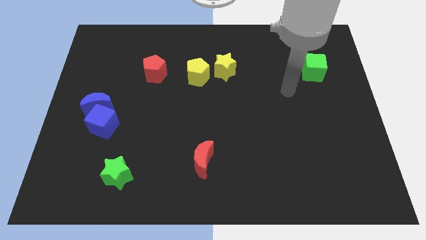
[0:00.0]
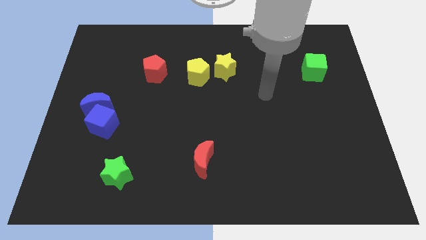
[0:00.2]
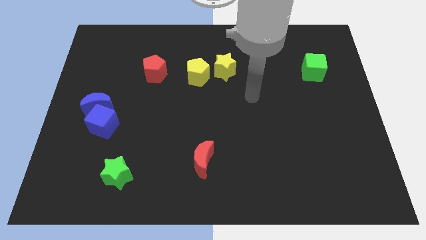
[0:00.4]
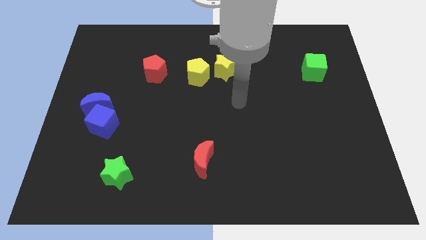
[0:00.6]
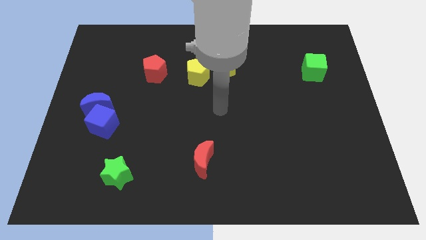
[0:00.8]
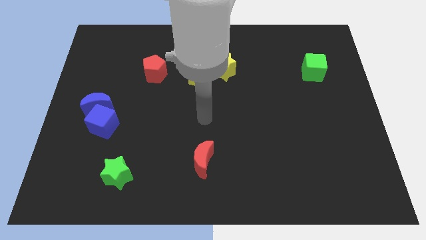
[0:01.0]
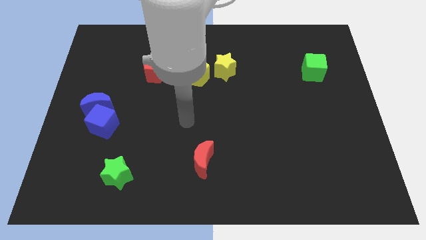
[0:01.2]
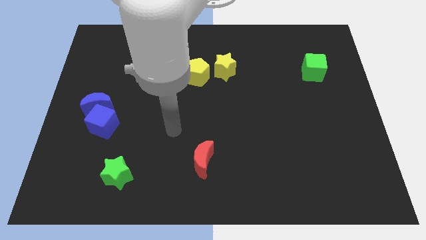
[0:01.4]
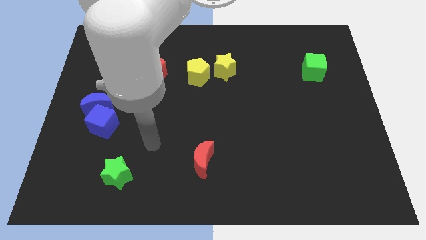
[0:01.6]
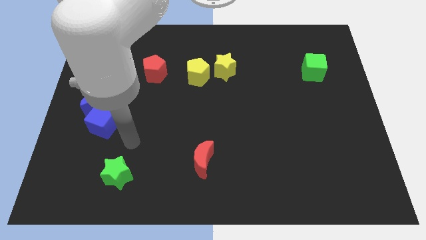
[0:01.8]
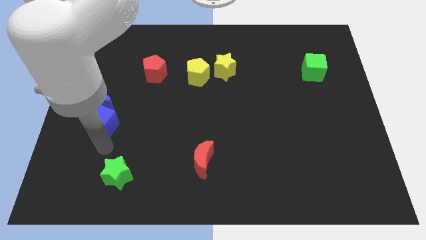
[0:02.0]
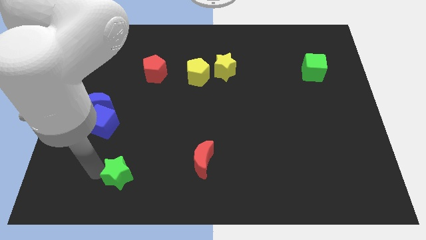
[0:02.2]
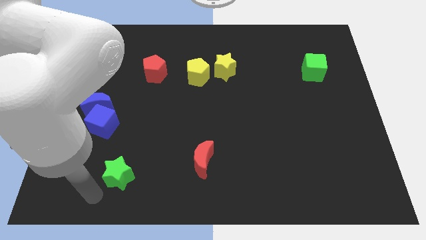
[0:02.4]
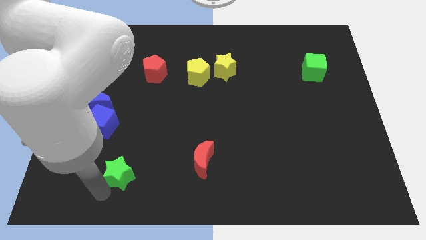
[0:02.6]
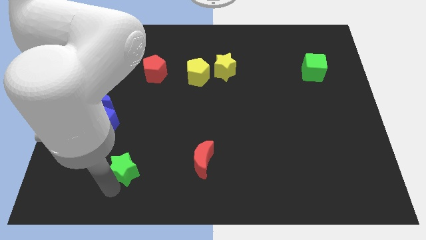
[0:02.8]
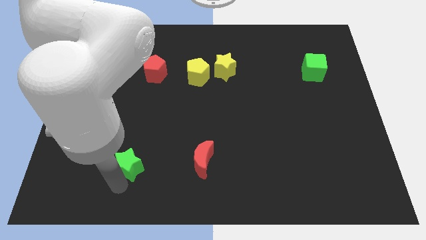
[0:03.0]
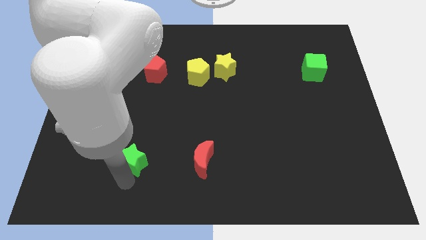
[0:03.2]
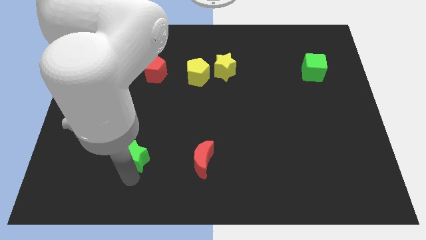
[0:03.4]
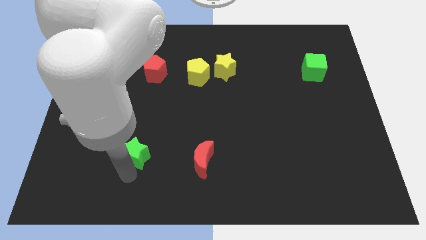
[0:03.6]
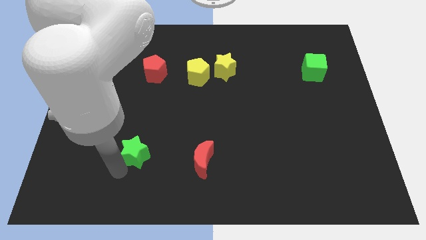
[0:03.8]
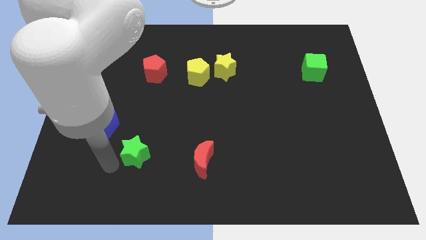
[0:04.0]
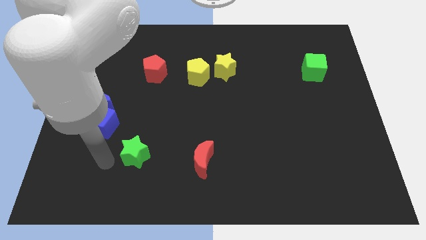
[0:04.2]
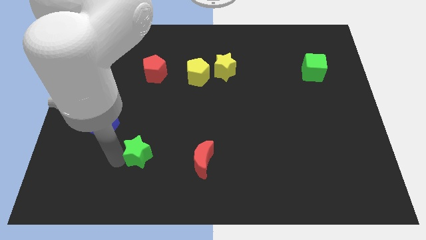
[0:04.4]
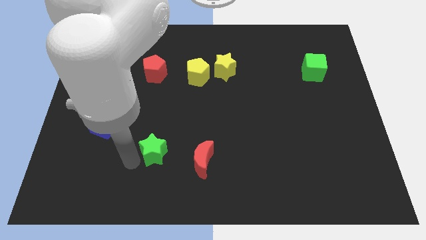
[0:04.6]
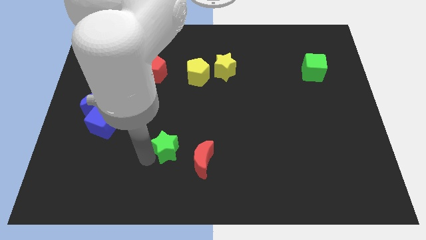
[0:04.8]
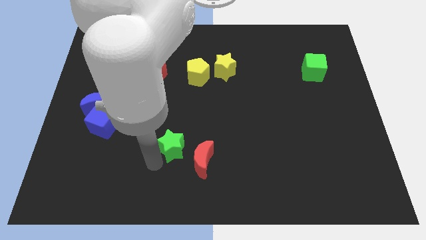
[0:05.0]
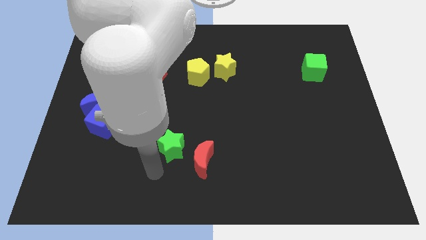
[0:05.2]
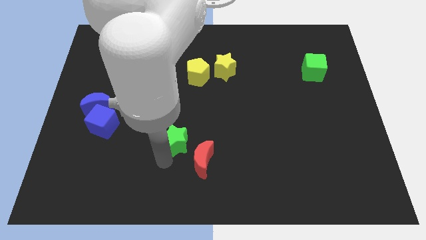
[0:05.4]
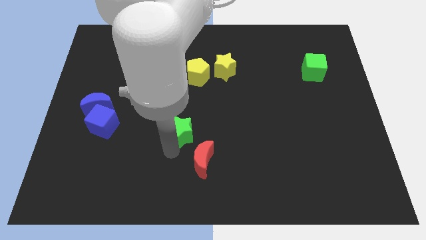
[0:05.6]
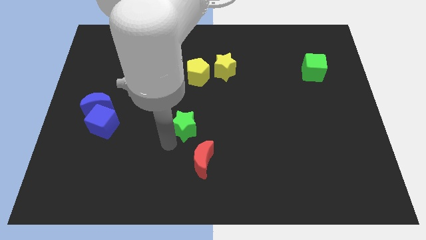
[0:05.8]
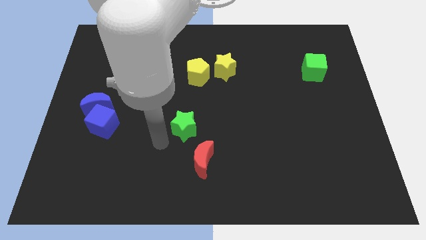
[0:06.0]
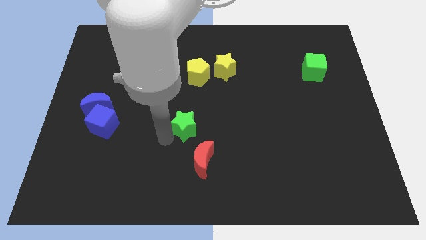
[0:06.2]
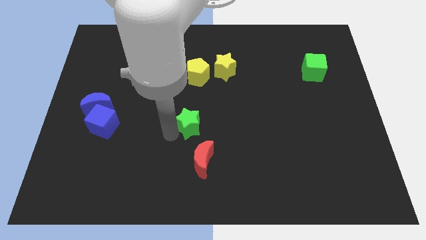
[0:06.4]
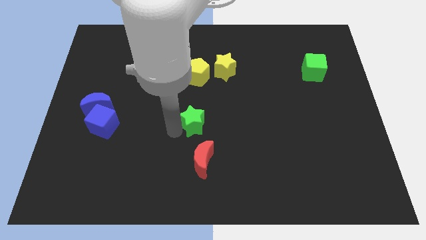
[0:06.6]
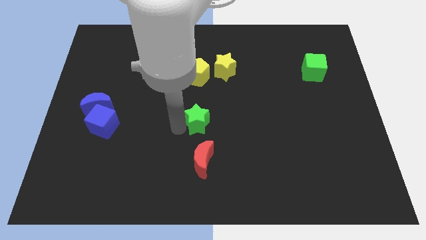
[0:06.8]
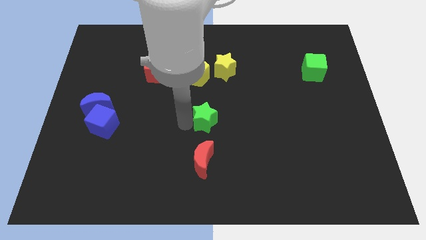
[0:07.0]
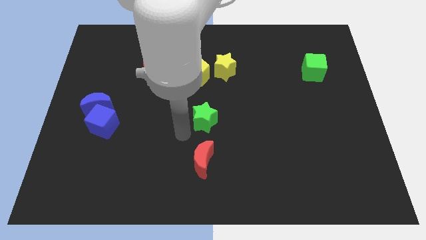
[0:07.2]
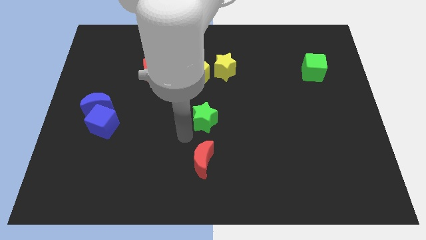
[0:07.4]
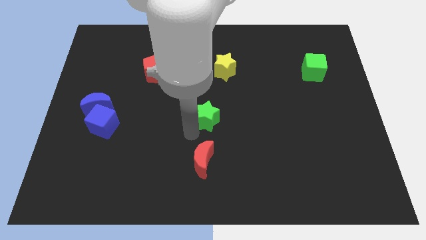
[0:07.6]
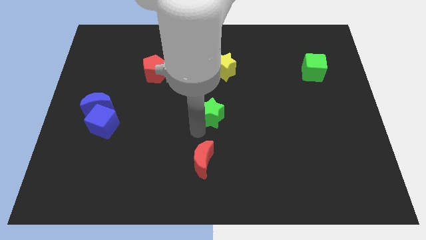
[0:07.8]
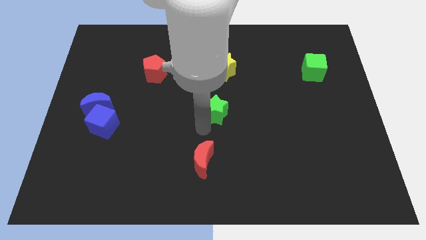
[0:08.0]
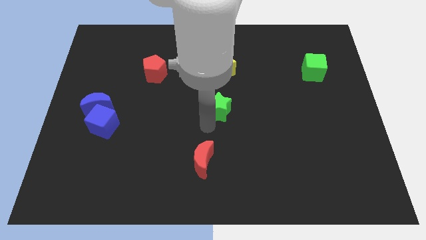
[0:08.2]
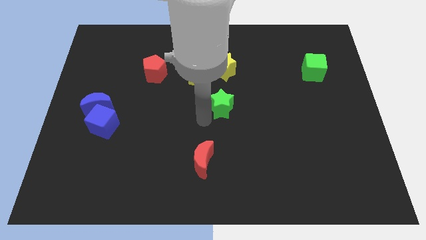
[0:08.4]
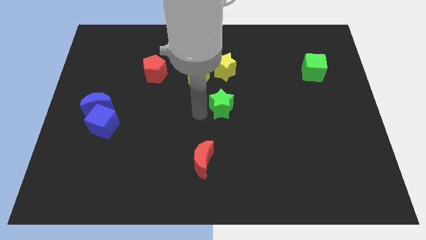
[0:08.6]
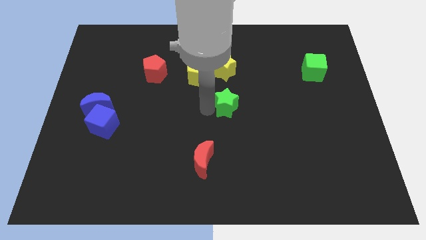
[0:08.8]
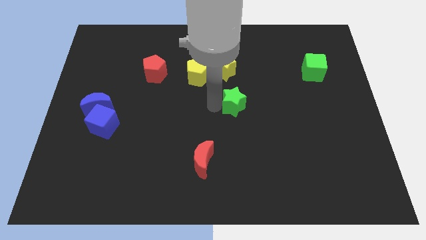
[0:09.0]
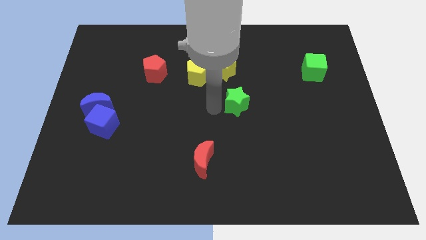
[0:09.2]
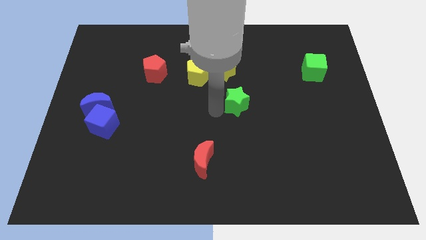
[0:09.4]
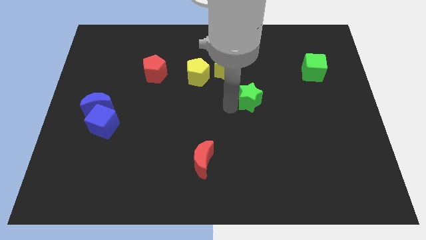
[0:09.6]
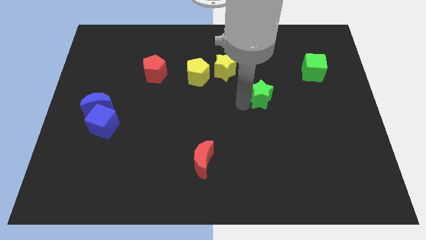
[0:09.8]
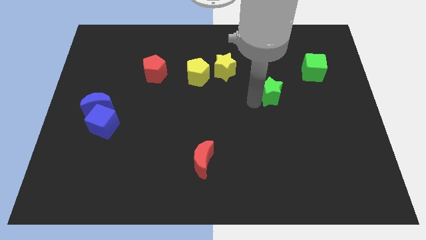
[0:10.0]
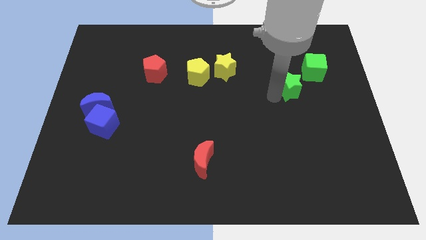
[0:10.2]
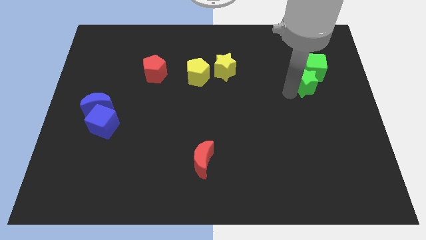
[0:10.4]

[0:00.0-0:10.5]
slide the green star towards the green cube

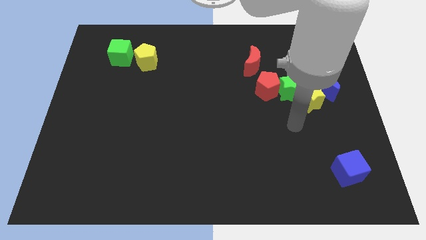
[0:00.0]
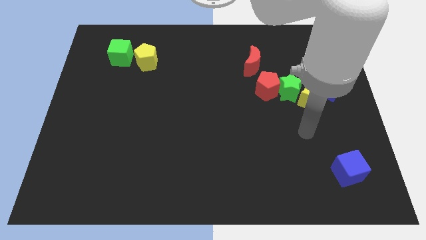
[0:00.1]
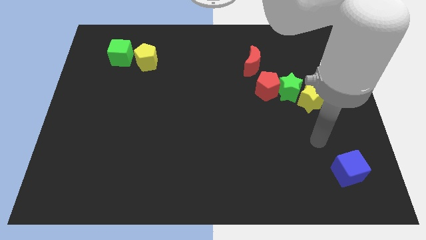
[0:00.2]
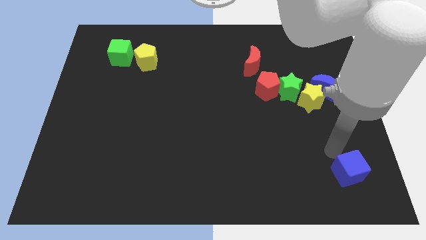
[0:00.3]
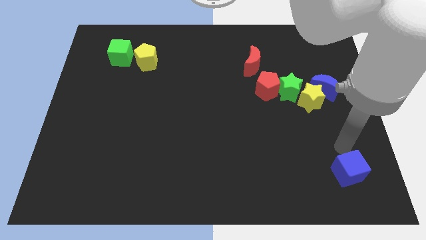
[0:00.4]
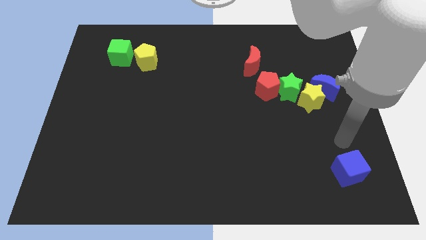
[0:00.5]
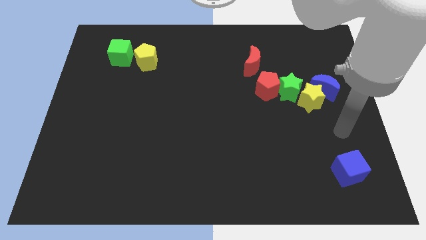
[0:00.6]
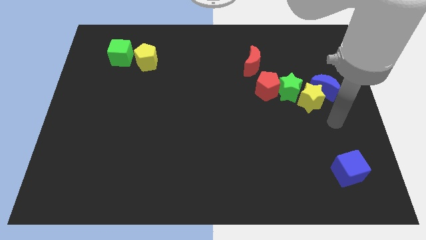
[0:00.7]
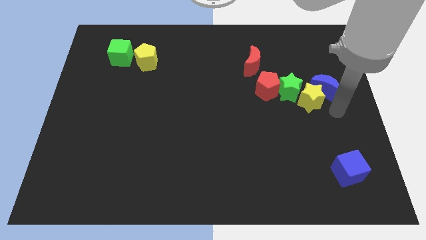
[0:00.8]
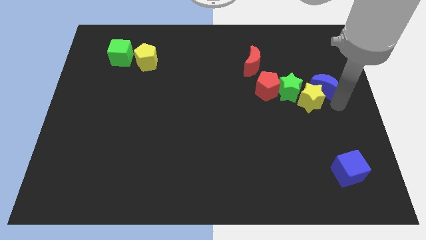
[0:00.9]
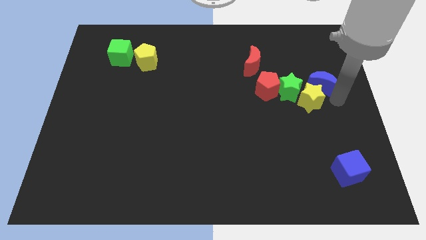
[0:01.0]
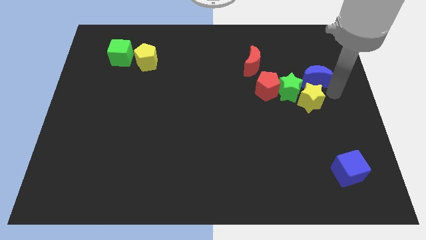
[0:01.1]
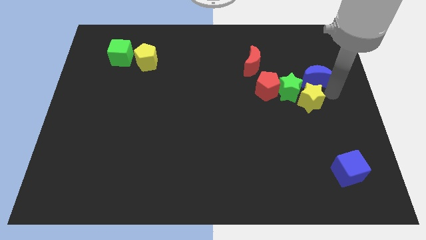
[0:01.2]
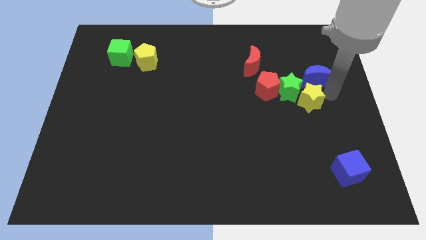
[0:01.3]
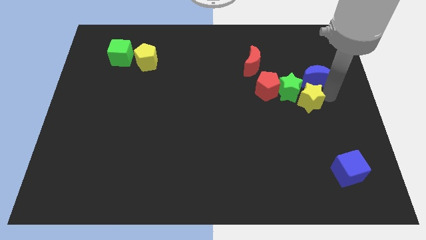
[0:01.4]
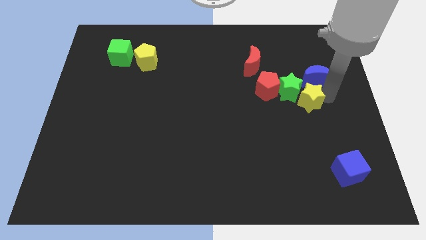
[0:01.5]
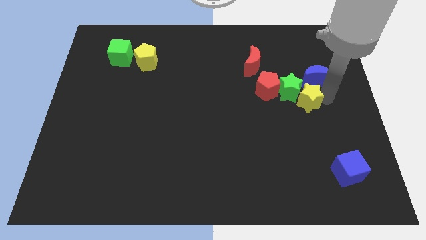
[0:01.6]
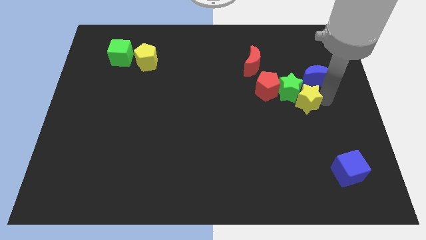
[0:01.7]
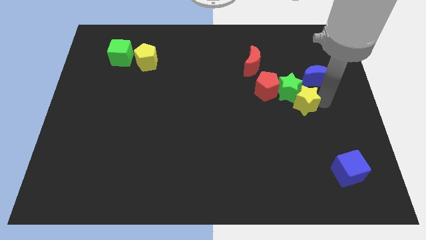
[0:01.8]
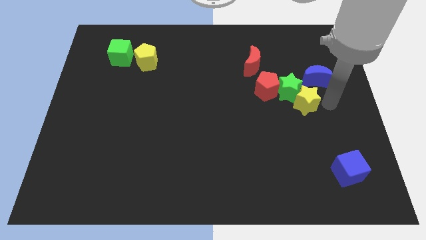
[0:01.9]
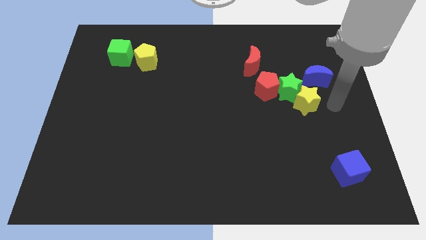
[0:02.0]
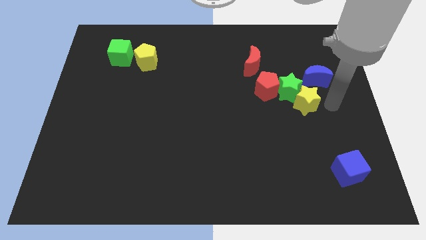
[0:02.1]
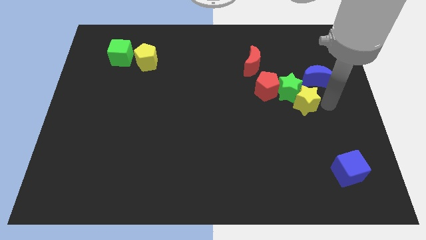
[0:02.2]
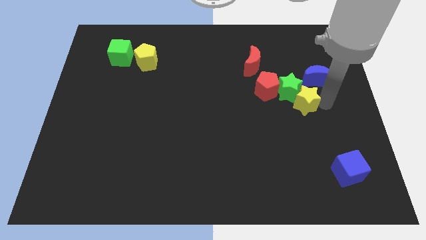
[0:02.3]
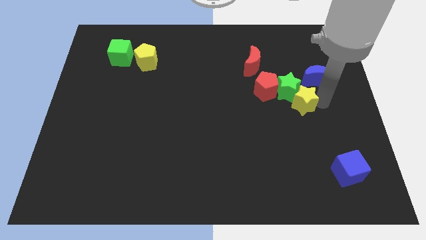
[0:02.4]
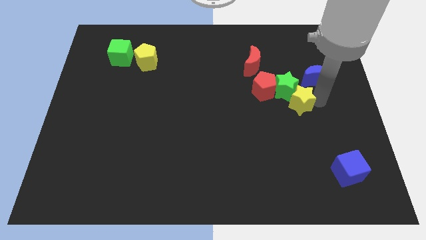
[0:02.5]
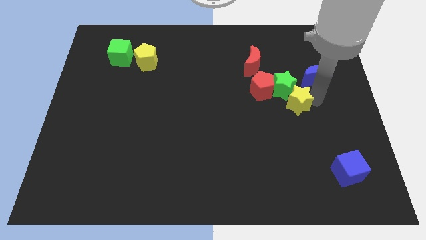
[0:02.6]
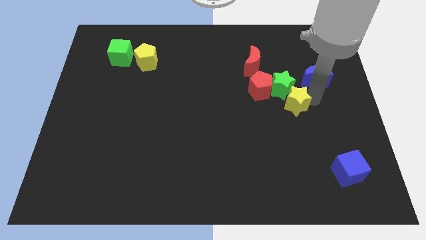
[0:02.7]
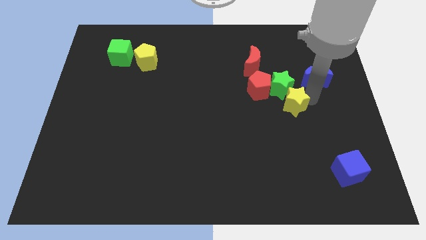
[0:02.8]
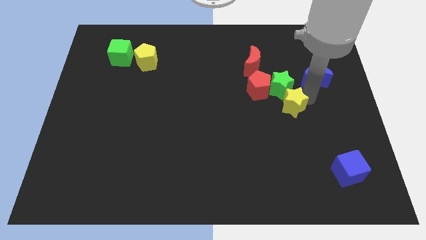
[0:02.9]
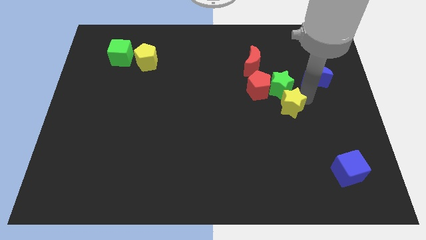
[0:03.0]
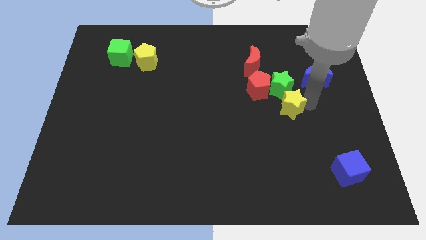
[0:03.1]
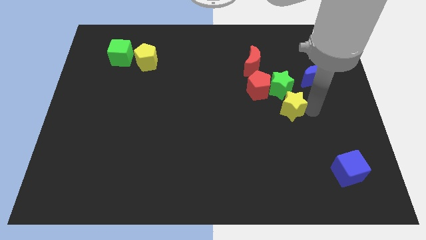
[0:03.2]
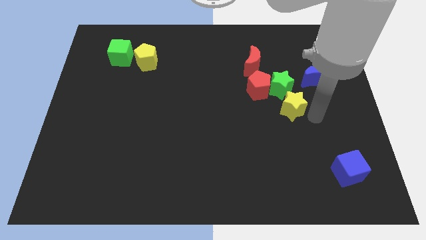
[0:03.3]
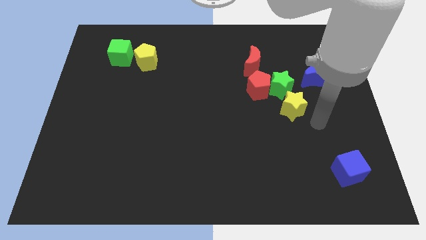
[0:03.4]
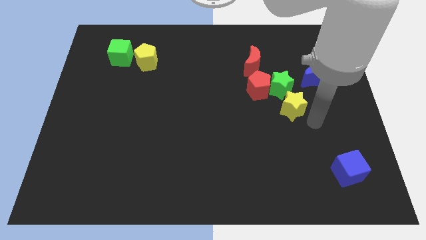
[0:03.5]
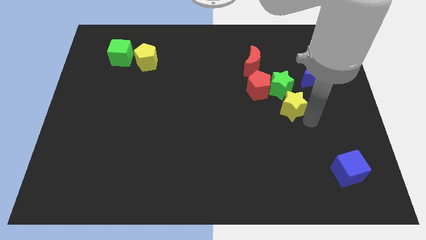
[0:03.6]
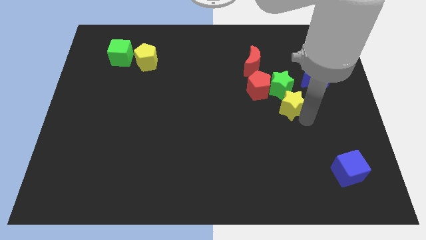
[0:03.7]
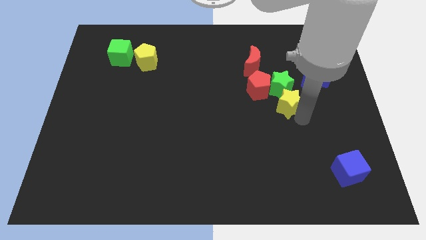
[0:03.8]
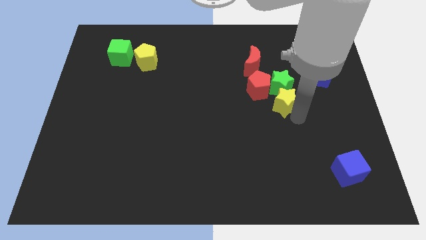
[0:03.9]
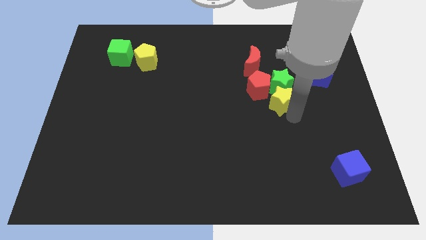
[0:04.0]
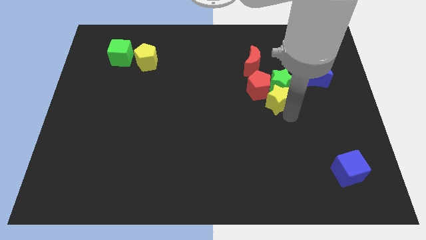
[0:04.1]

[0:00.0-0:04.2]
move the yellow star to the red pentagon
